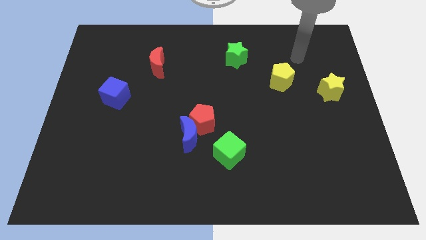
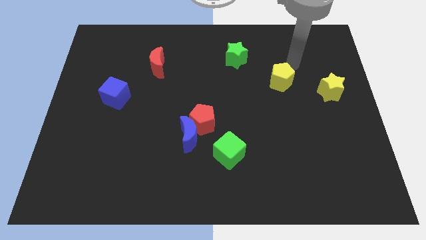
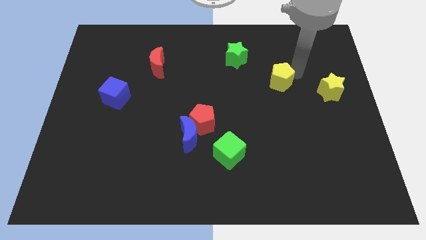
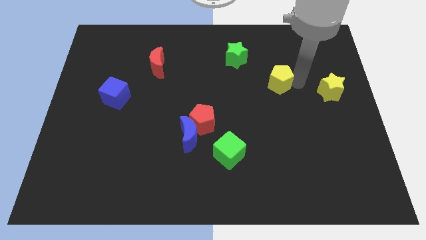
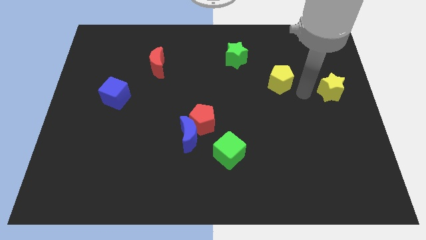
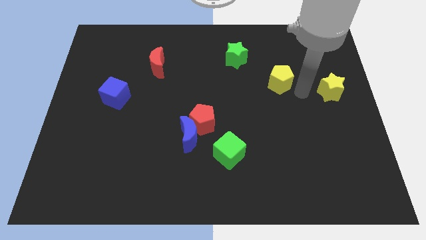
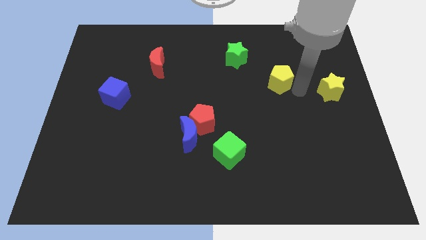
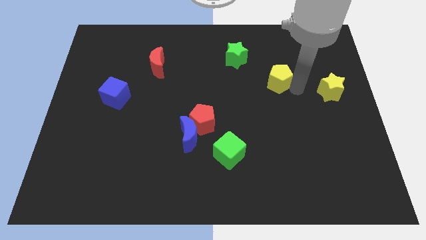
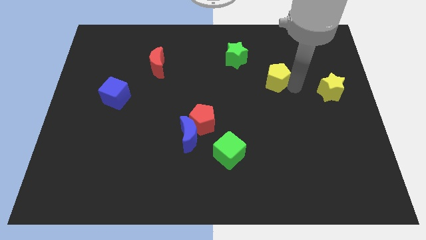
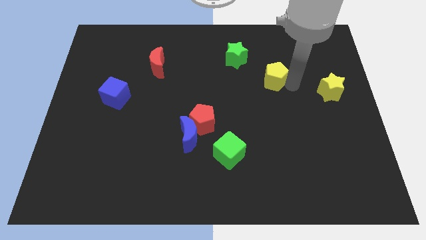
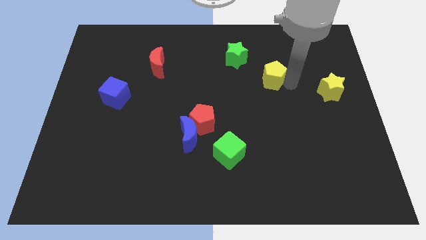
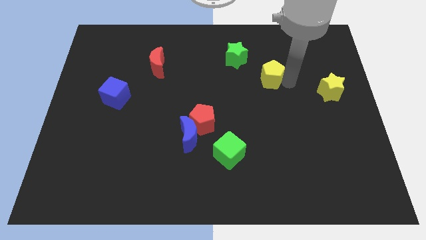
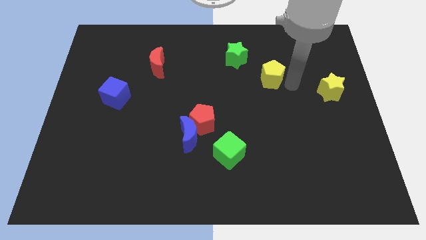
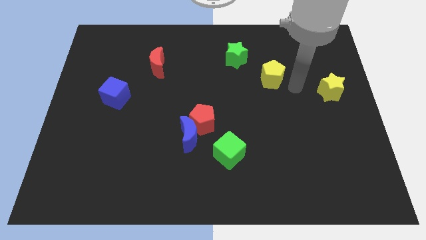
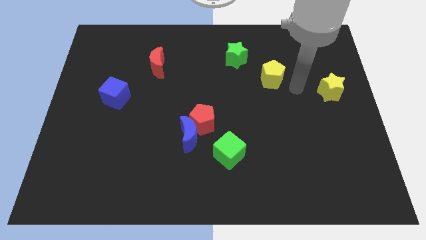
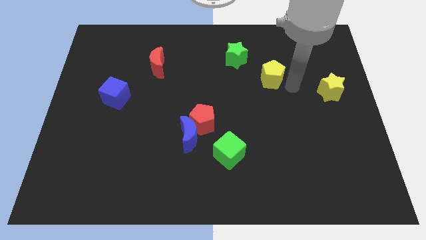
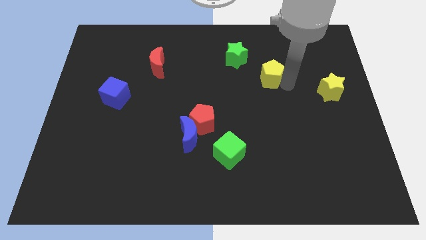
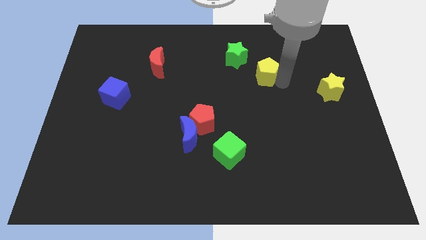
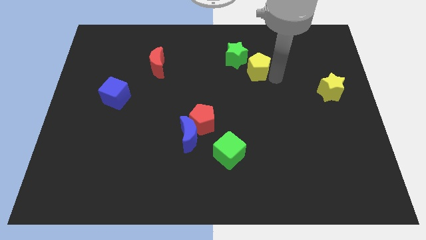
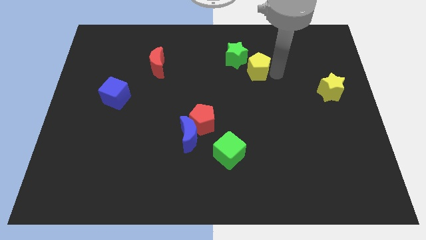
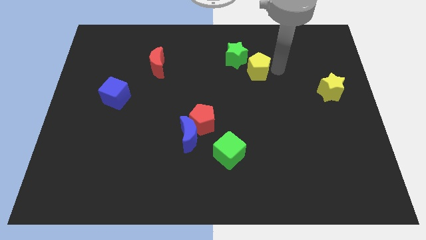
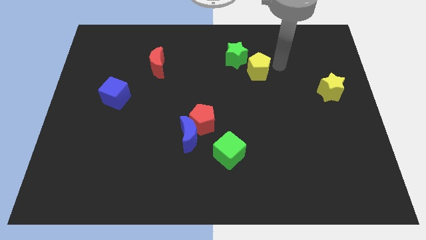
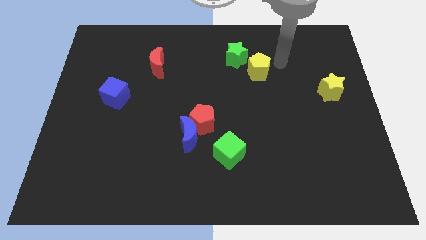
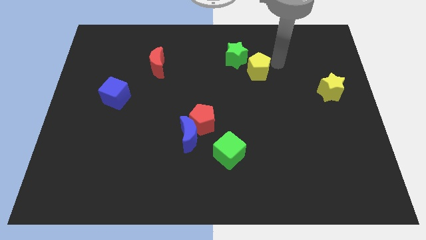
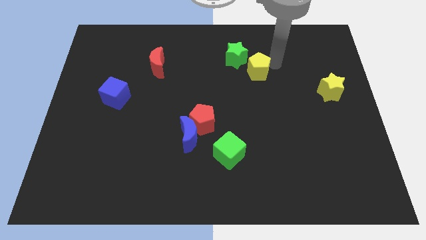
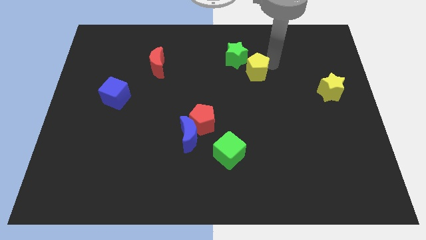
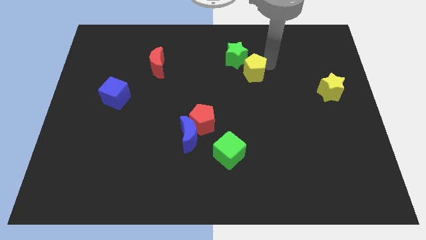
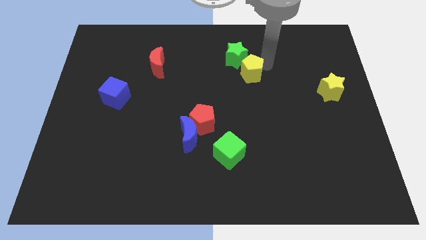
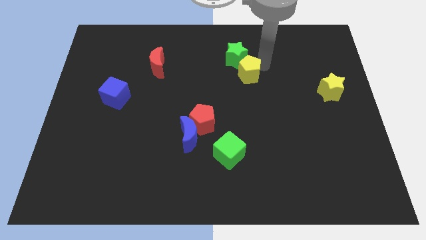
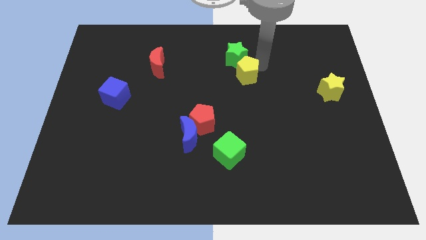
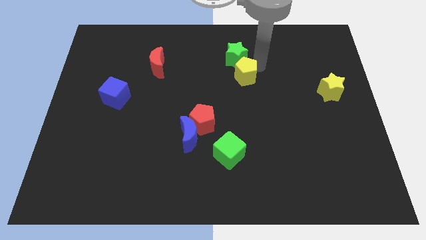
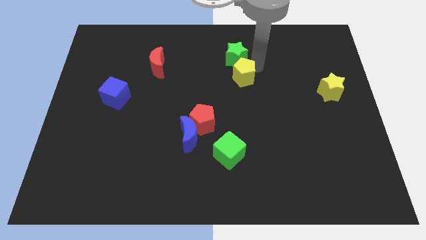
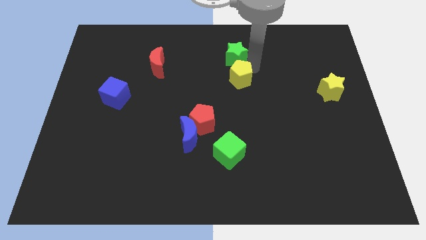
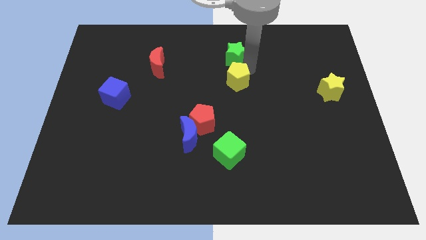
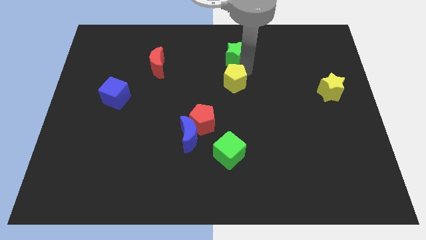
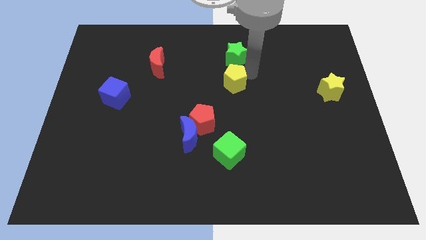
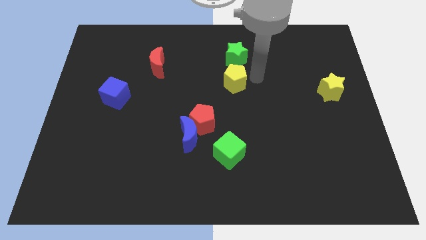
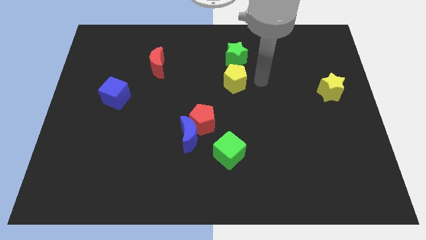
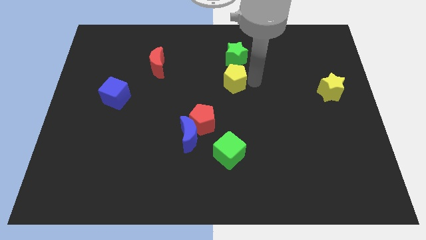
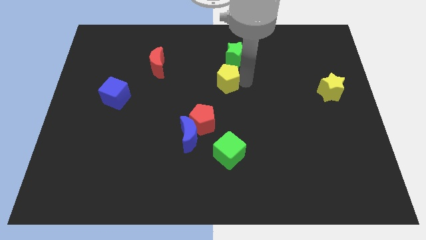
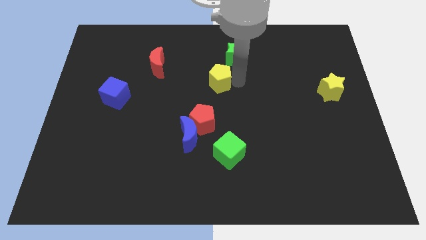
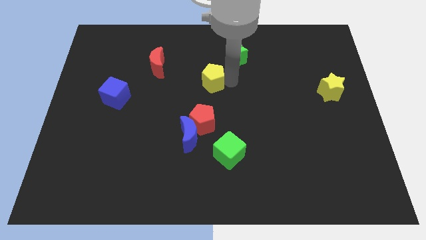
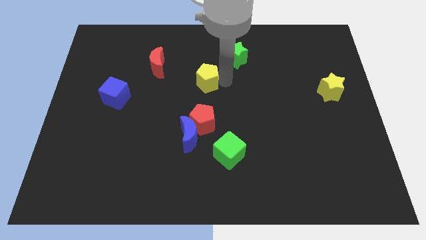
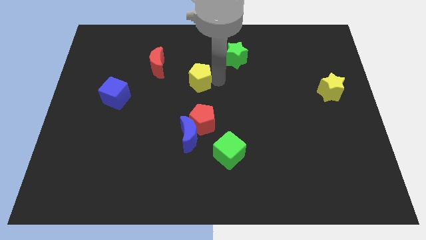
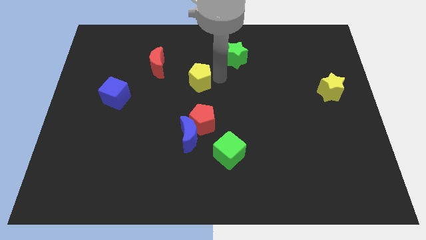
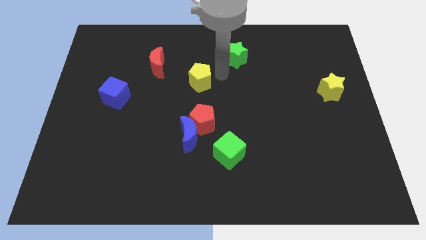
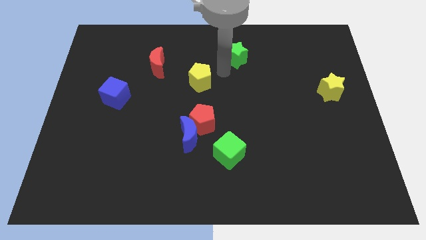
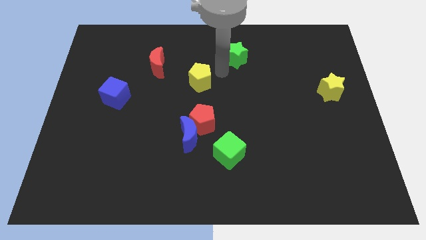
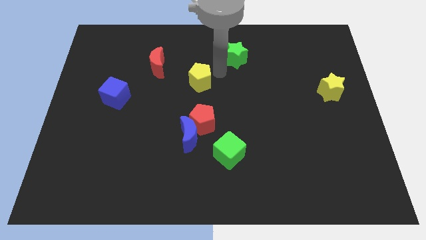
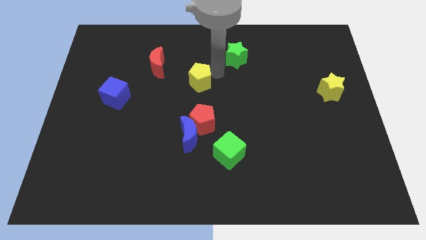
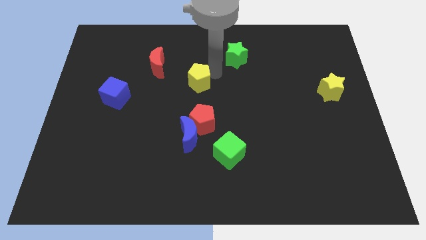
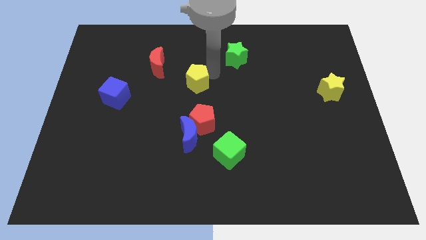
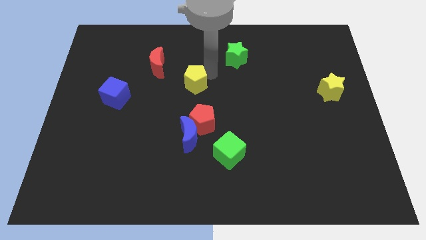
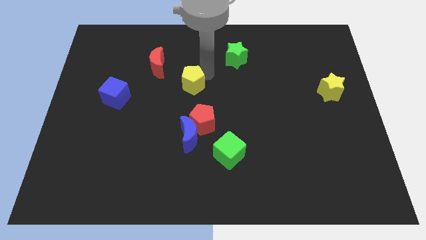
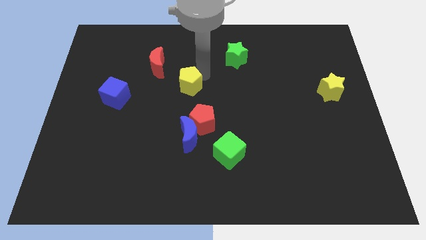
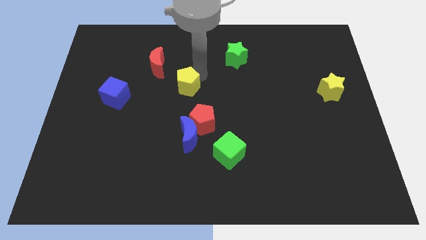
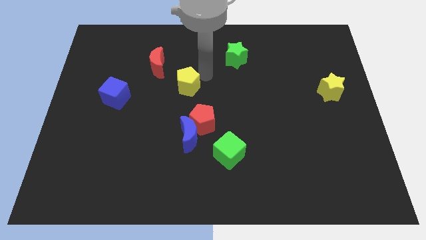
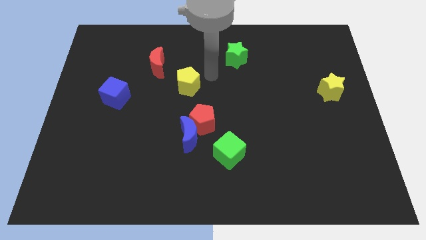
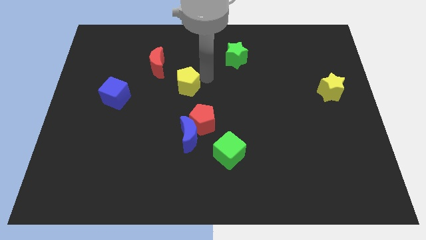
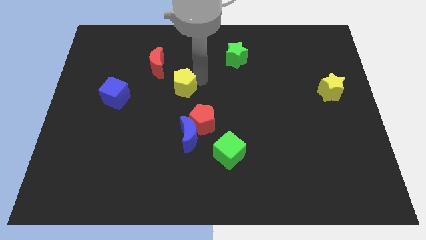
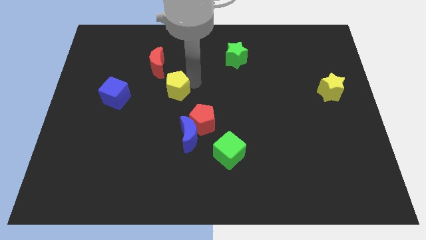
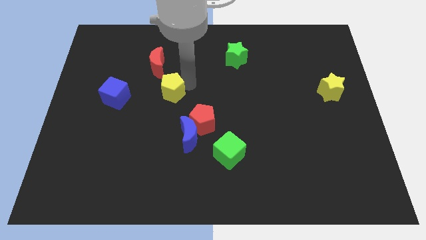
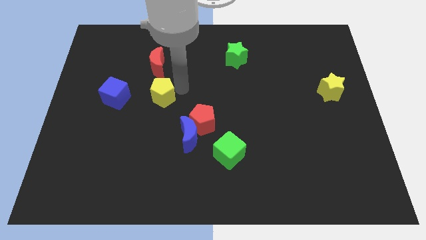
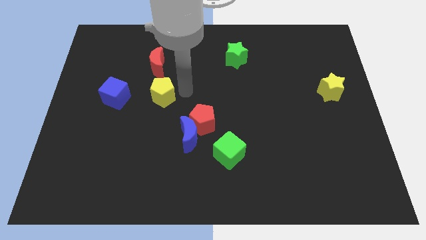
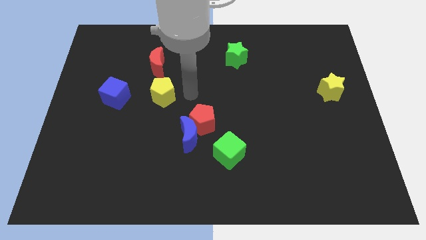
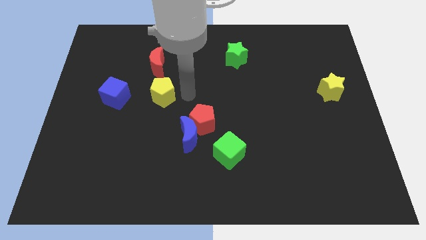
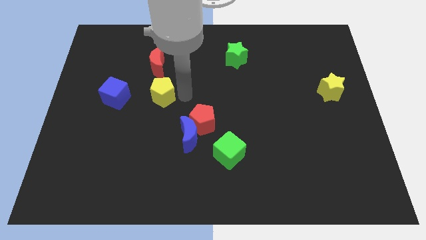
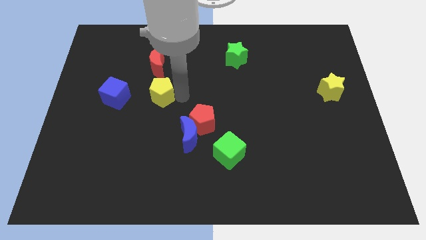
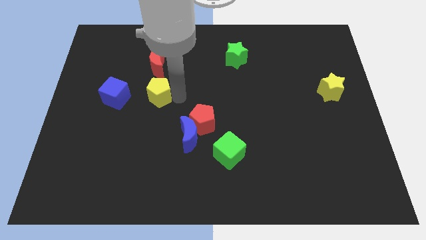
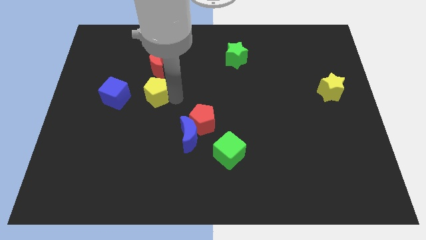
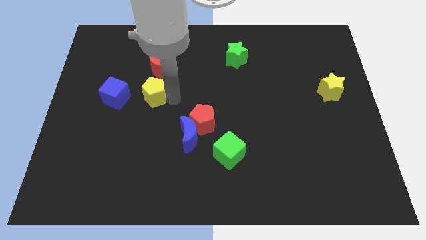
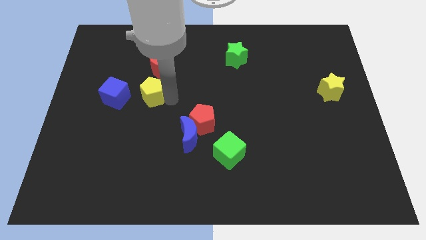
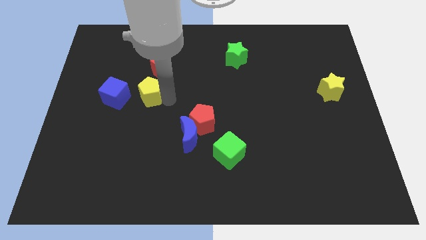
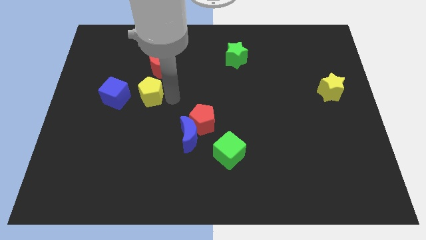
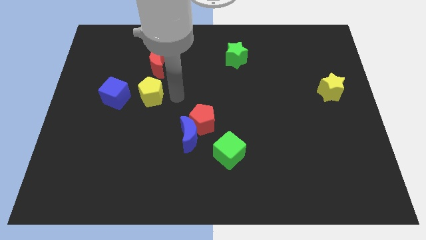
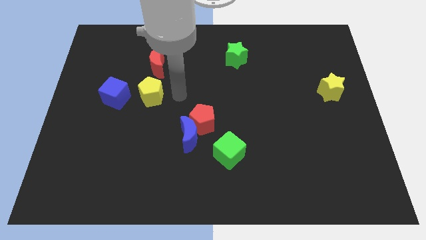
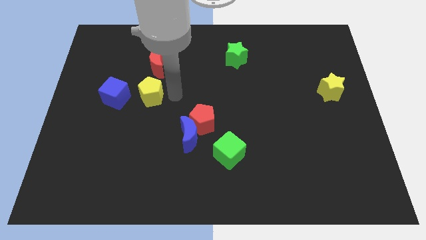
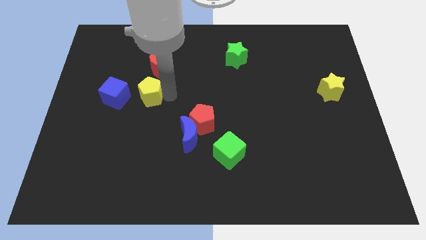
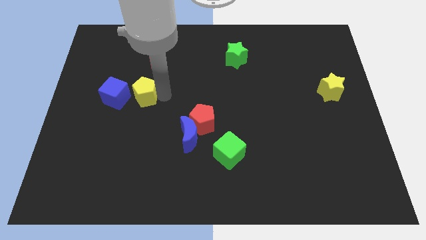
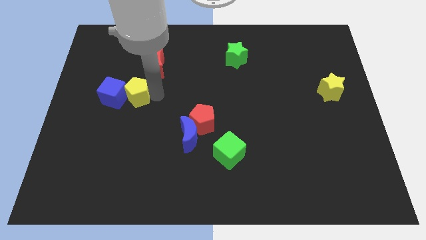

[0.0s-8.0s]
move the yellow pentagon to the blue cube
